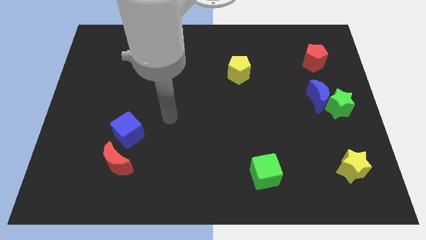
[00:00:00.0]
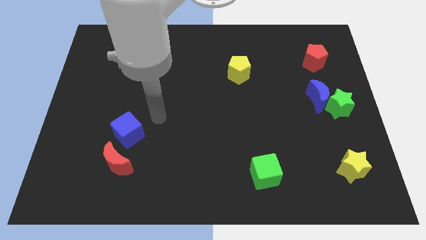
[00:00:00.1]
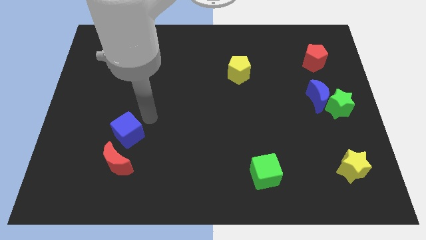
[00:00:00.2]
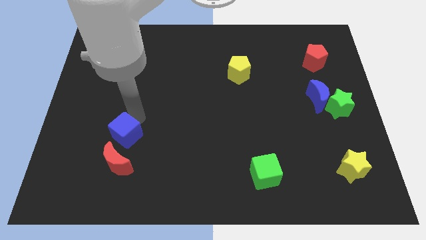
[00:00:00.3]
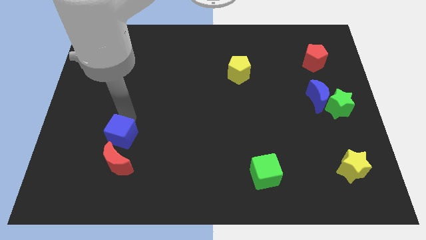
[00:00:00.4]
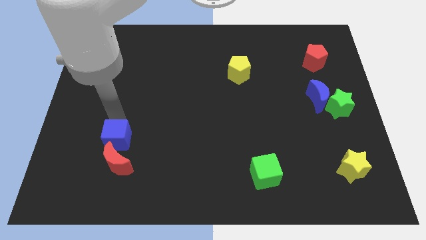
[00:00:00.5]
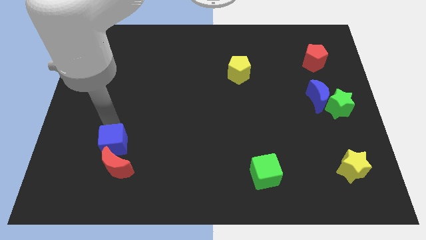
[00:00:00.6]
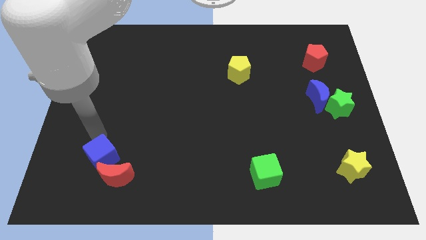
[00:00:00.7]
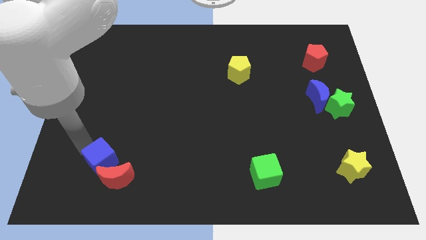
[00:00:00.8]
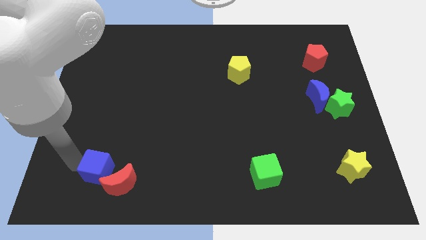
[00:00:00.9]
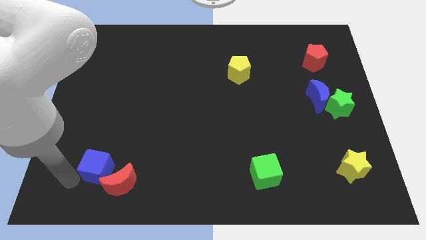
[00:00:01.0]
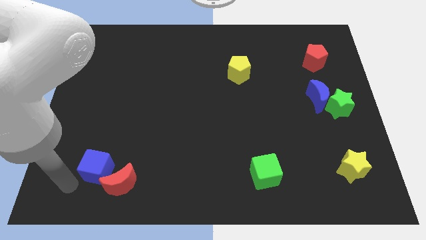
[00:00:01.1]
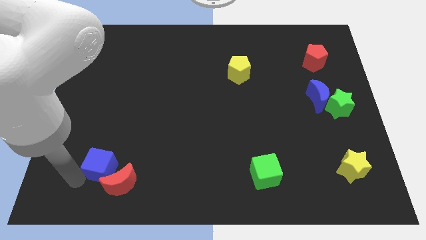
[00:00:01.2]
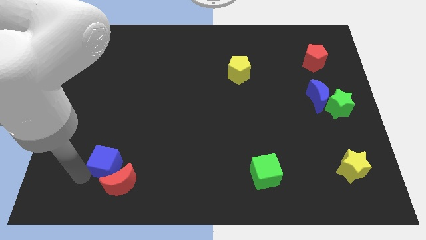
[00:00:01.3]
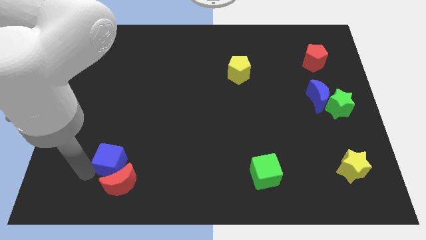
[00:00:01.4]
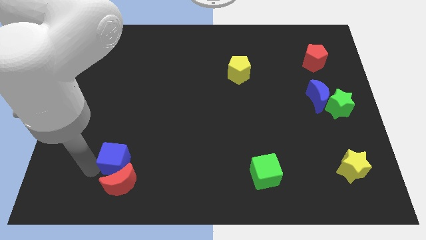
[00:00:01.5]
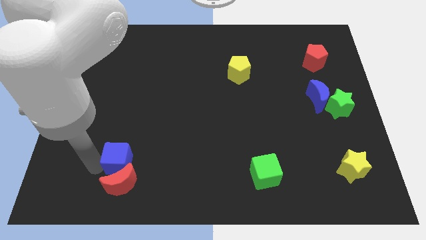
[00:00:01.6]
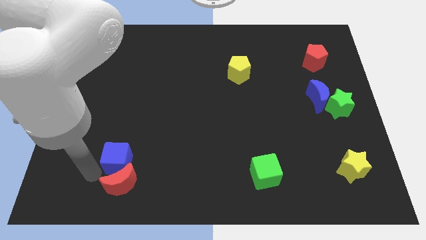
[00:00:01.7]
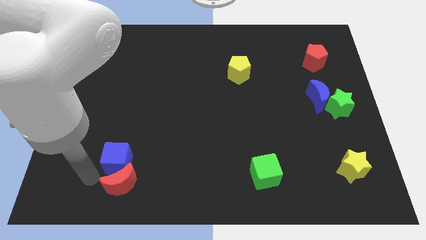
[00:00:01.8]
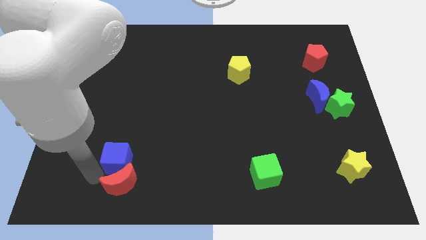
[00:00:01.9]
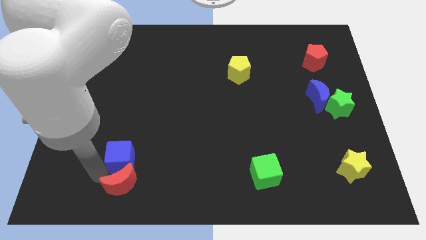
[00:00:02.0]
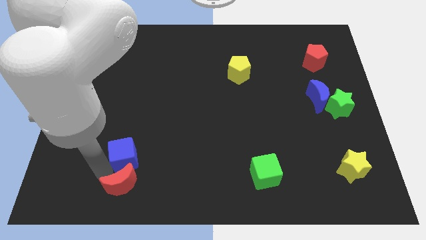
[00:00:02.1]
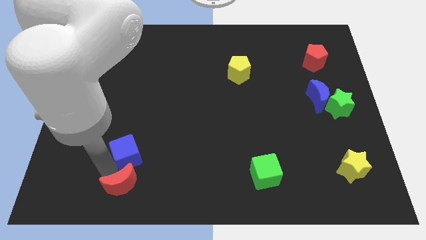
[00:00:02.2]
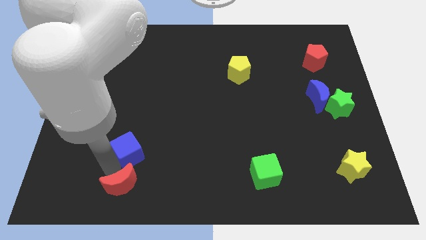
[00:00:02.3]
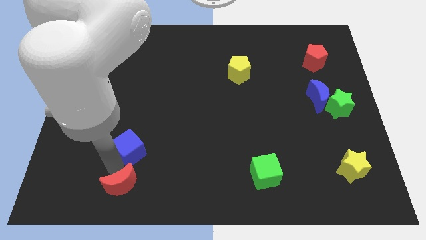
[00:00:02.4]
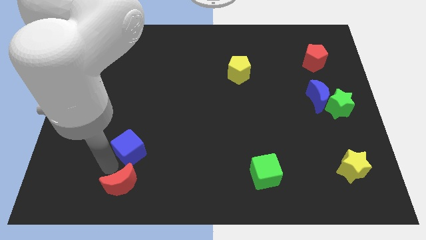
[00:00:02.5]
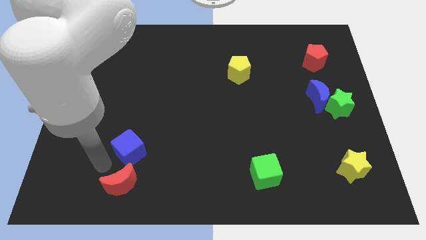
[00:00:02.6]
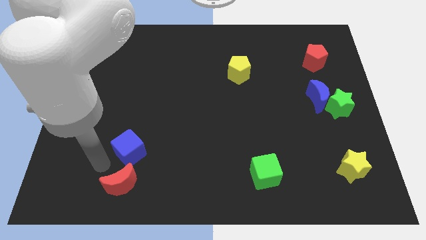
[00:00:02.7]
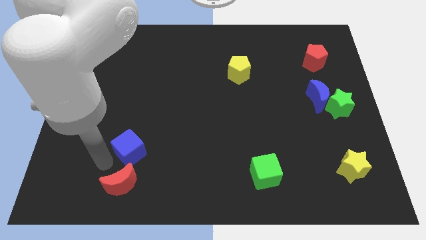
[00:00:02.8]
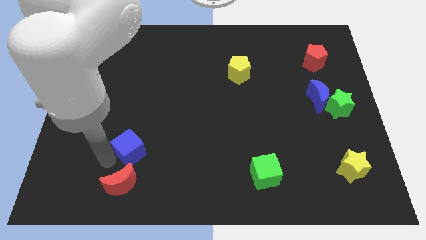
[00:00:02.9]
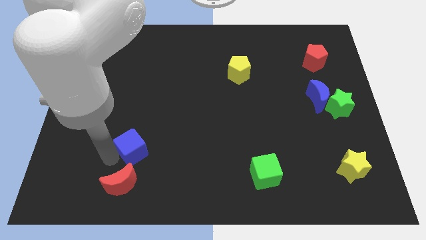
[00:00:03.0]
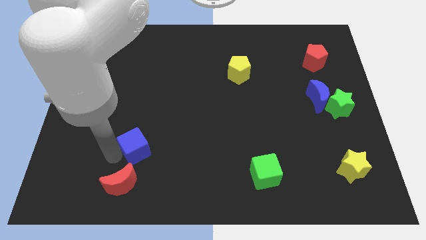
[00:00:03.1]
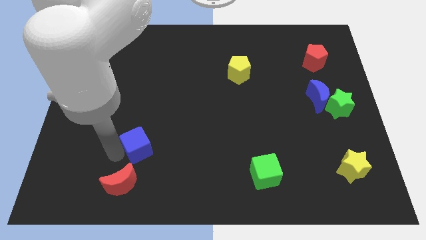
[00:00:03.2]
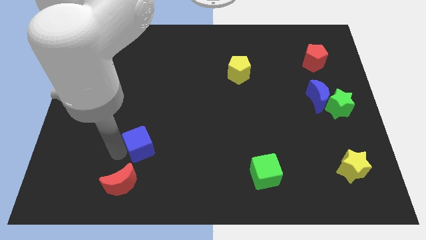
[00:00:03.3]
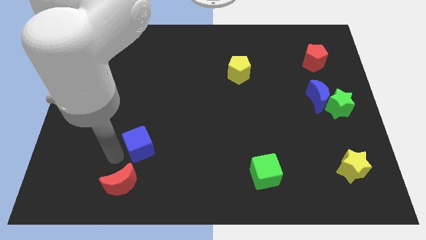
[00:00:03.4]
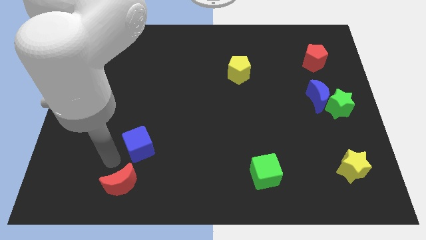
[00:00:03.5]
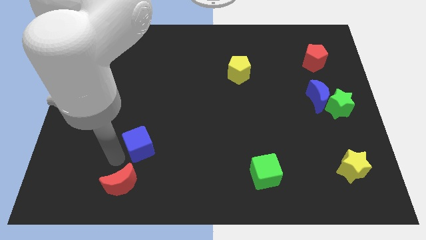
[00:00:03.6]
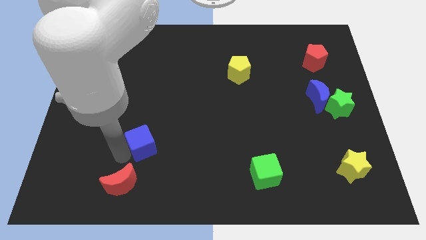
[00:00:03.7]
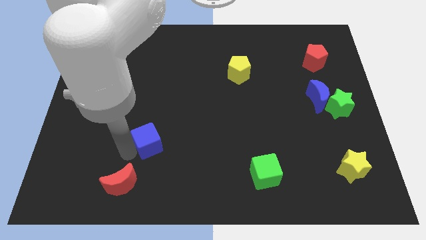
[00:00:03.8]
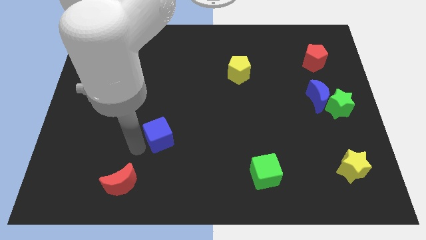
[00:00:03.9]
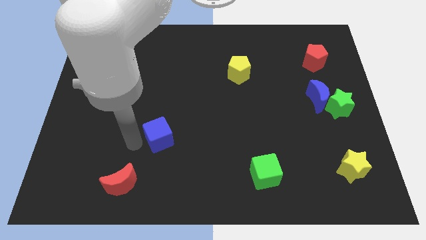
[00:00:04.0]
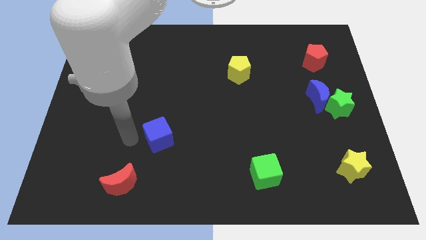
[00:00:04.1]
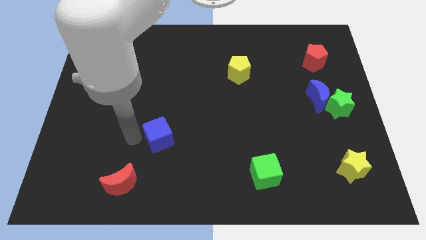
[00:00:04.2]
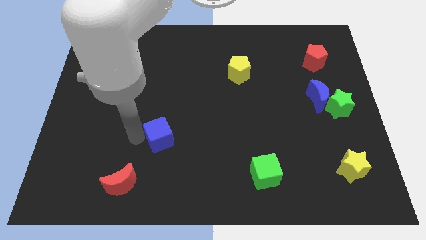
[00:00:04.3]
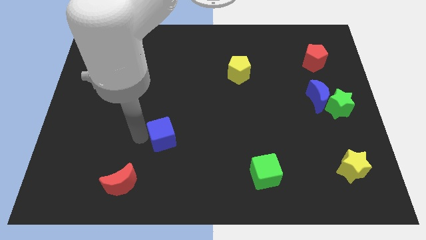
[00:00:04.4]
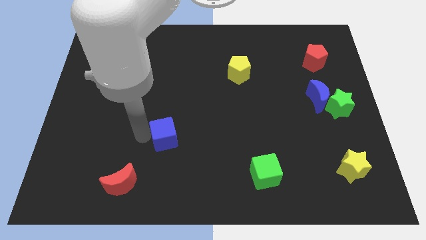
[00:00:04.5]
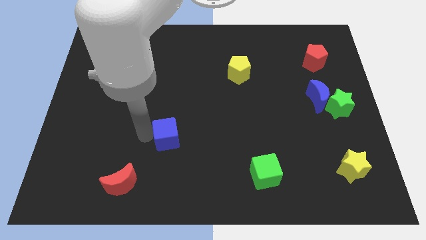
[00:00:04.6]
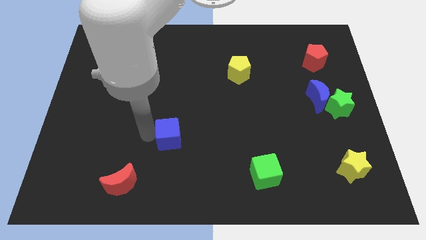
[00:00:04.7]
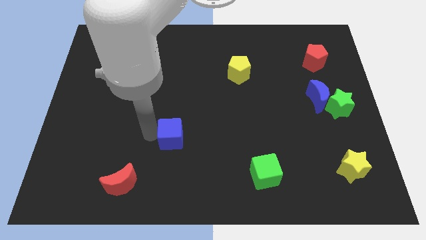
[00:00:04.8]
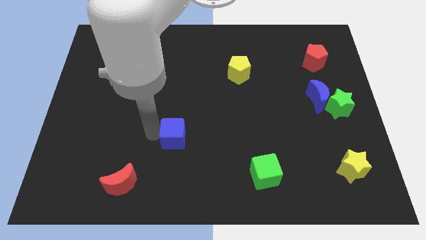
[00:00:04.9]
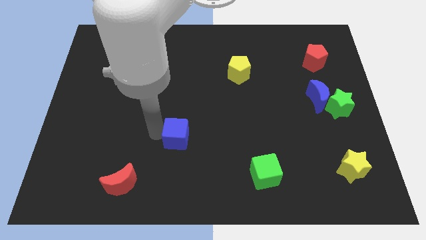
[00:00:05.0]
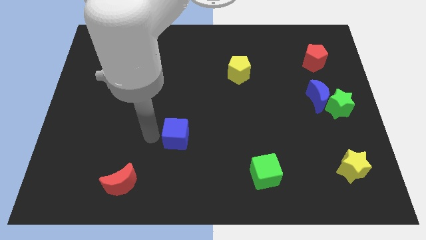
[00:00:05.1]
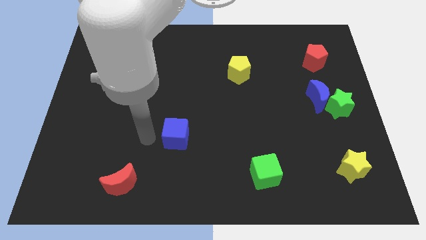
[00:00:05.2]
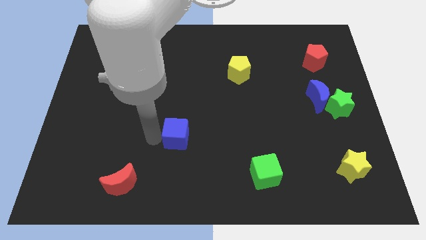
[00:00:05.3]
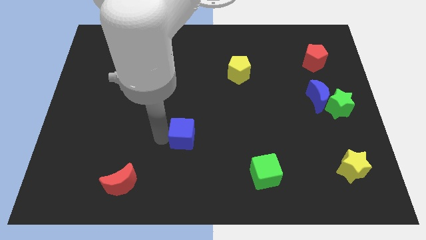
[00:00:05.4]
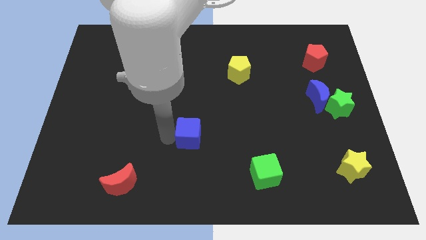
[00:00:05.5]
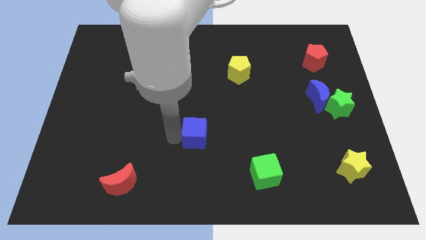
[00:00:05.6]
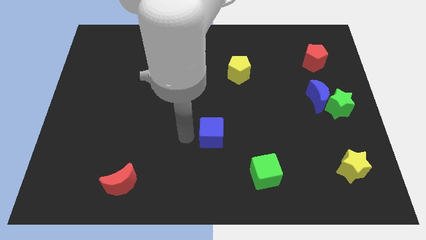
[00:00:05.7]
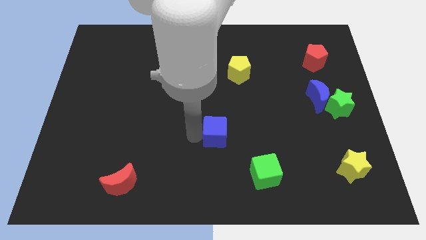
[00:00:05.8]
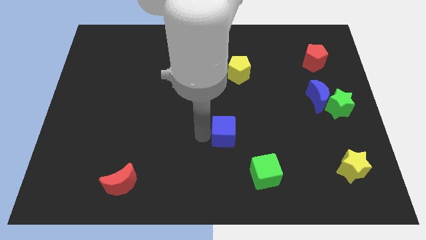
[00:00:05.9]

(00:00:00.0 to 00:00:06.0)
push the blue cube to the right

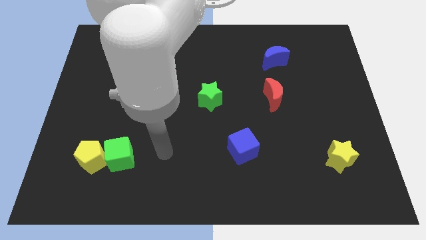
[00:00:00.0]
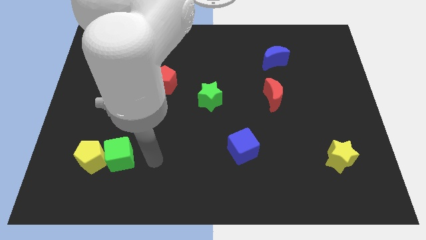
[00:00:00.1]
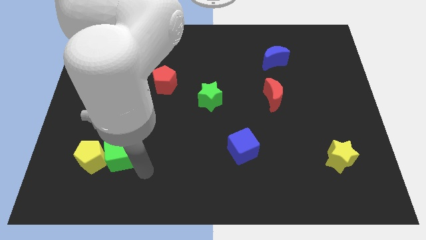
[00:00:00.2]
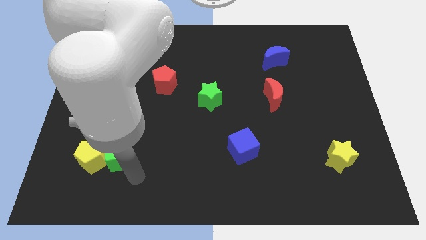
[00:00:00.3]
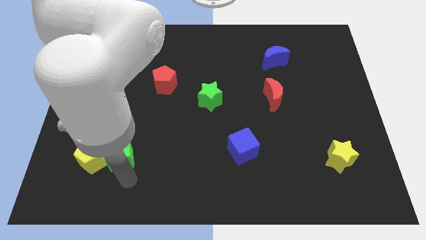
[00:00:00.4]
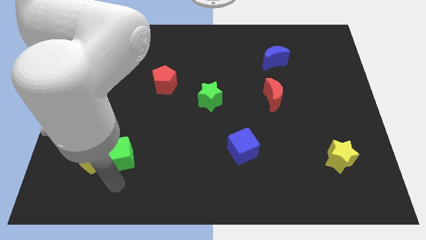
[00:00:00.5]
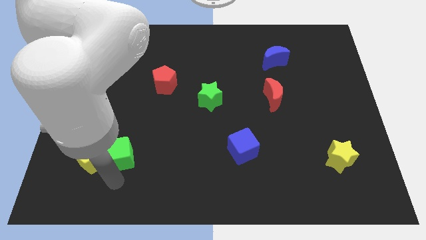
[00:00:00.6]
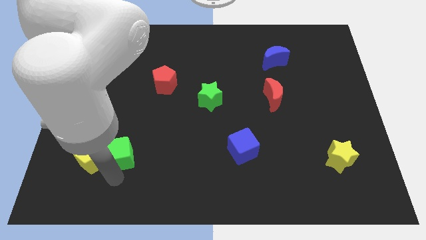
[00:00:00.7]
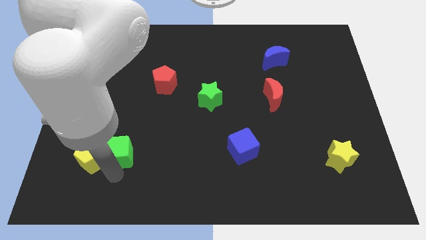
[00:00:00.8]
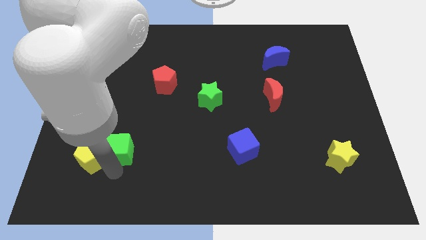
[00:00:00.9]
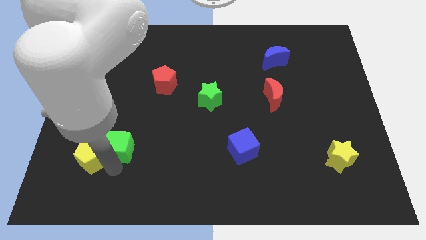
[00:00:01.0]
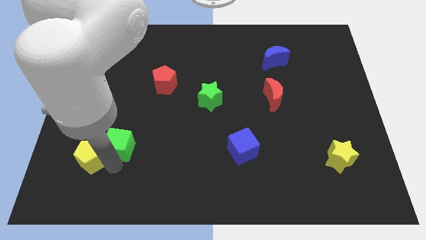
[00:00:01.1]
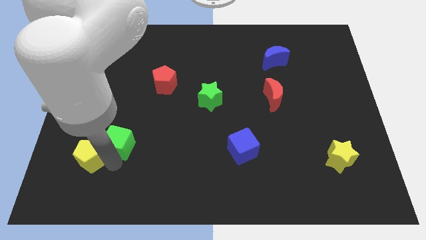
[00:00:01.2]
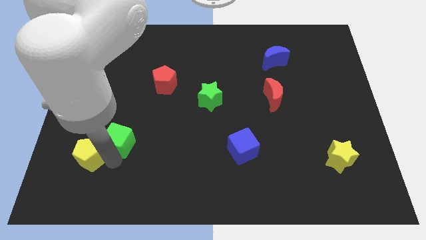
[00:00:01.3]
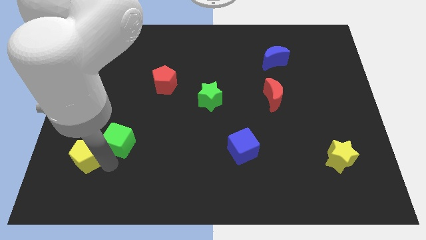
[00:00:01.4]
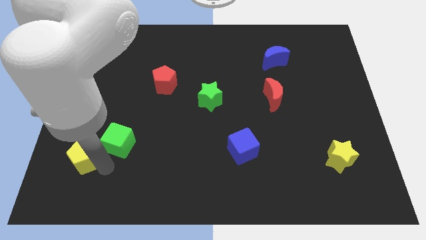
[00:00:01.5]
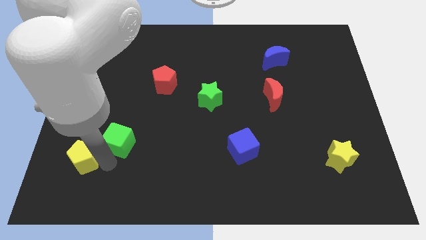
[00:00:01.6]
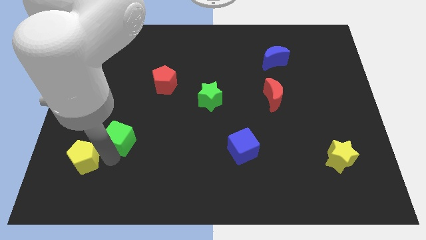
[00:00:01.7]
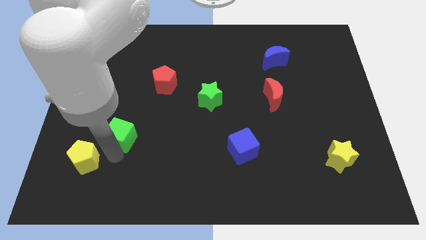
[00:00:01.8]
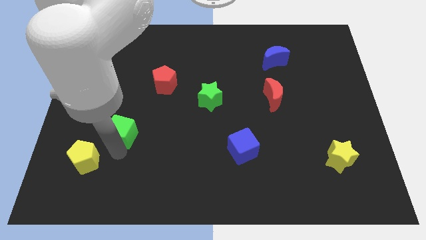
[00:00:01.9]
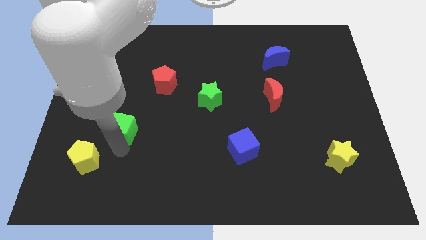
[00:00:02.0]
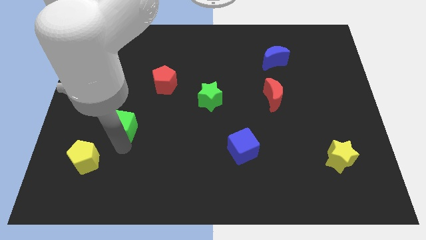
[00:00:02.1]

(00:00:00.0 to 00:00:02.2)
slide the green cube up a little bit
